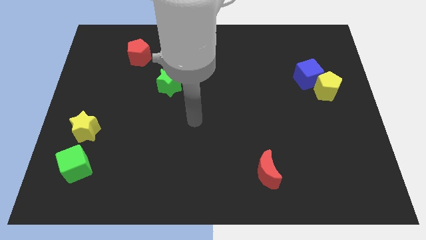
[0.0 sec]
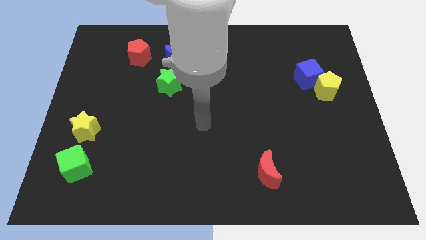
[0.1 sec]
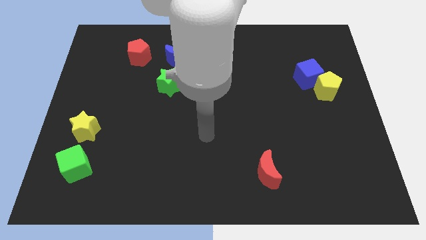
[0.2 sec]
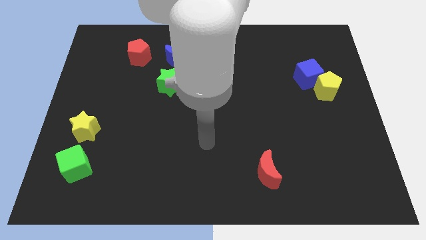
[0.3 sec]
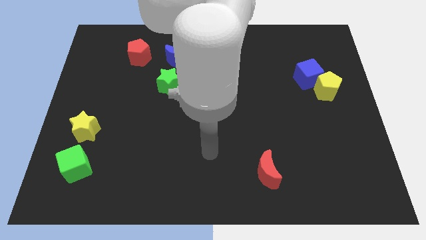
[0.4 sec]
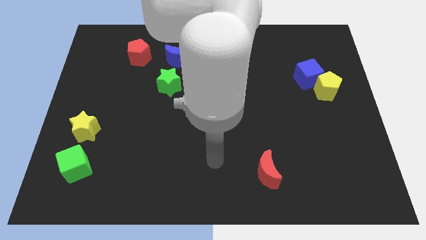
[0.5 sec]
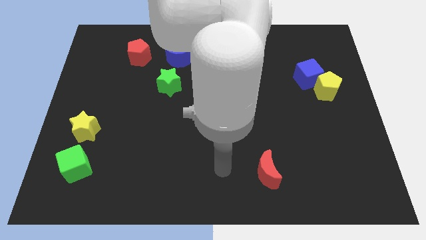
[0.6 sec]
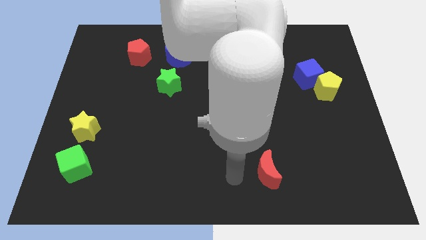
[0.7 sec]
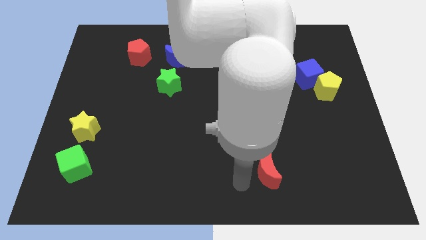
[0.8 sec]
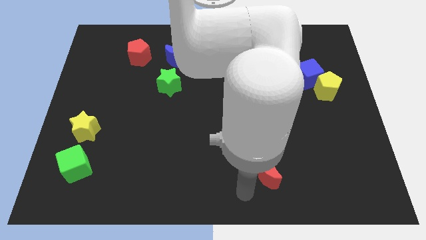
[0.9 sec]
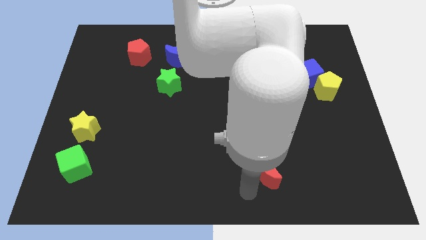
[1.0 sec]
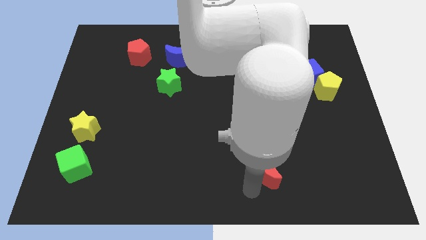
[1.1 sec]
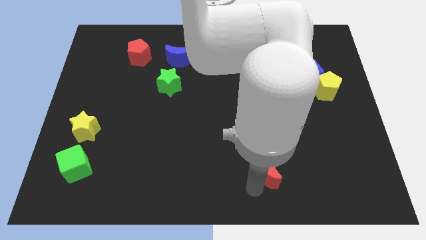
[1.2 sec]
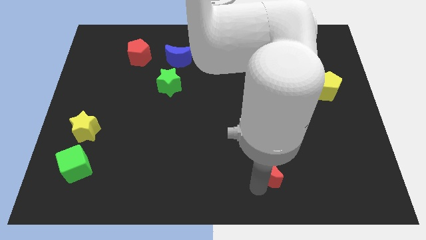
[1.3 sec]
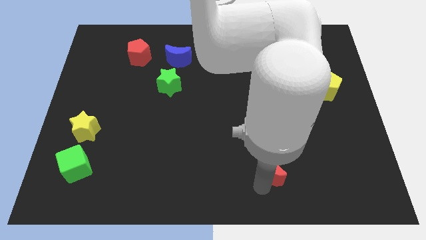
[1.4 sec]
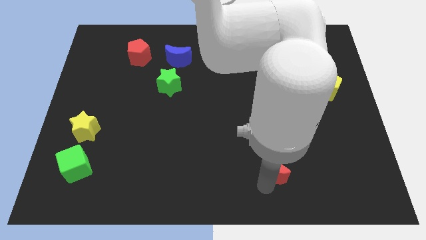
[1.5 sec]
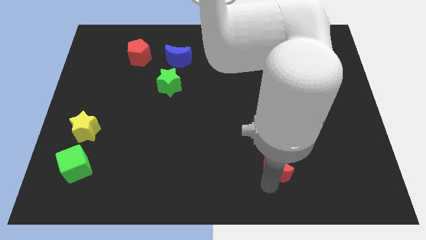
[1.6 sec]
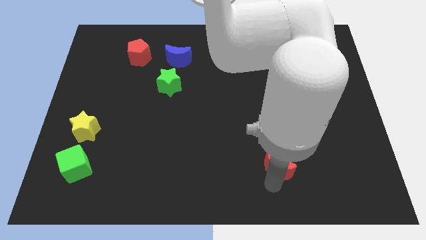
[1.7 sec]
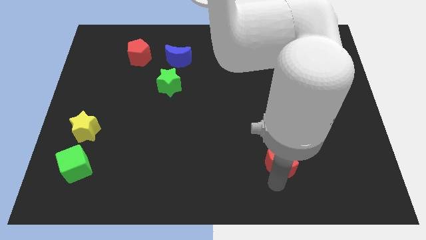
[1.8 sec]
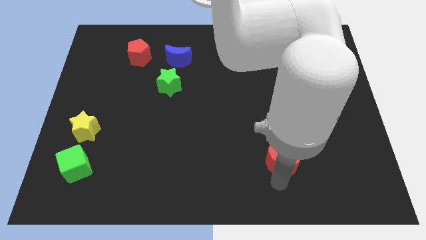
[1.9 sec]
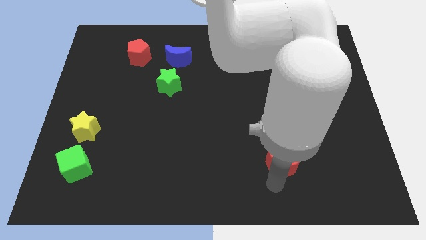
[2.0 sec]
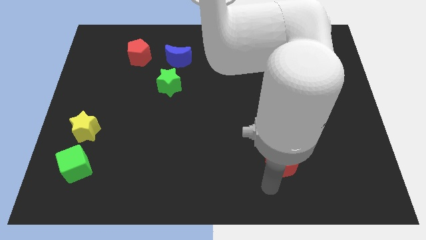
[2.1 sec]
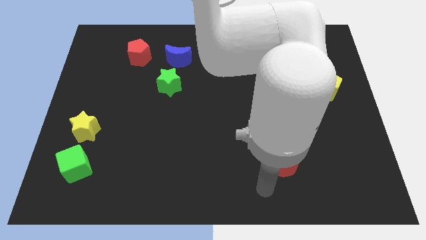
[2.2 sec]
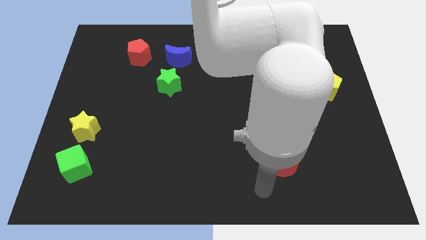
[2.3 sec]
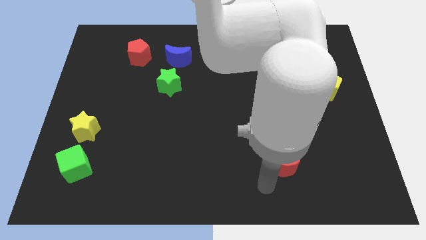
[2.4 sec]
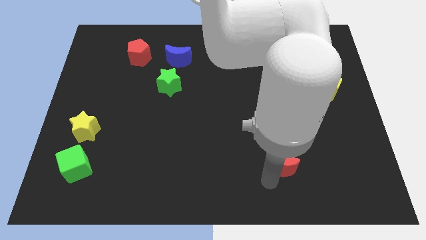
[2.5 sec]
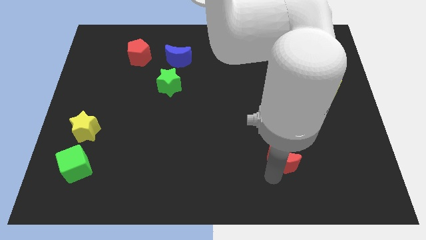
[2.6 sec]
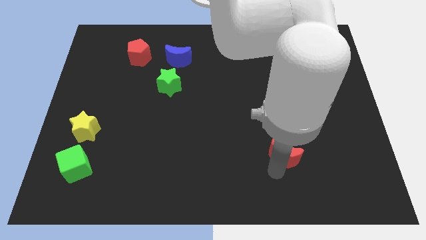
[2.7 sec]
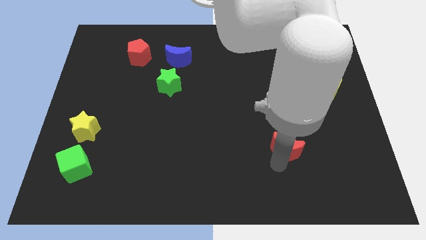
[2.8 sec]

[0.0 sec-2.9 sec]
move the red moon a little upwards and then right

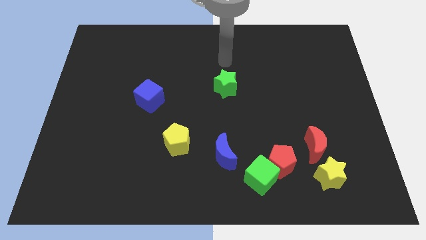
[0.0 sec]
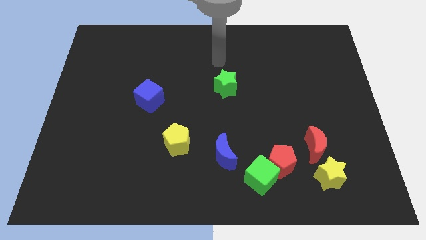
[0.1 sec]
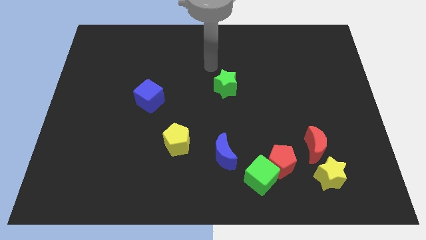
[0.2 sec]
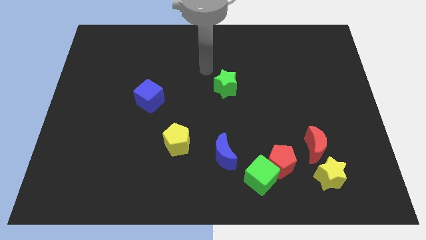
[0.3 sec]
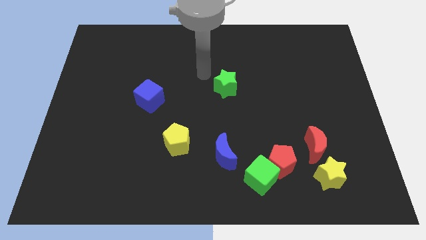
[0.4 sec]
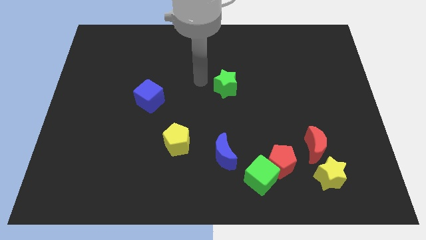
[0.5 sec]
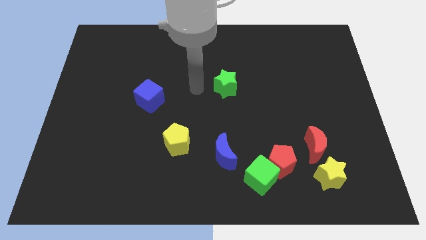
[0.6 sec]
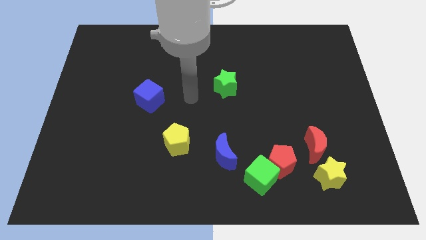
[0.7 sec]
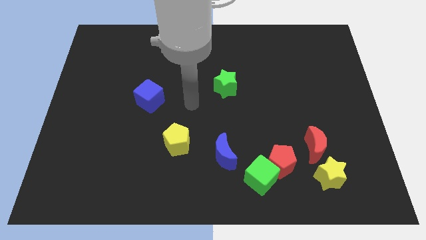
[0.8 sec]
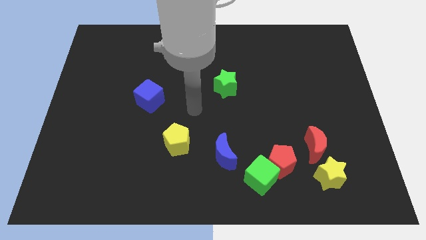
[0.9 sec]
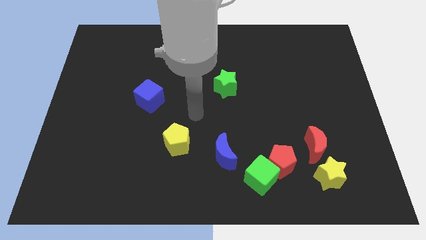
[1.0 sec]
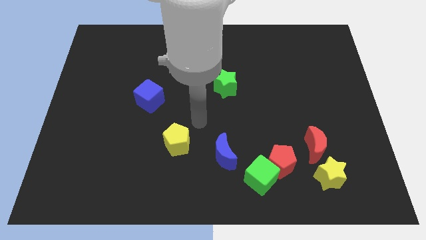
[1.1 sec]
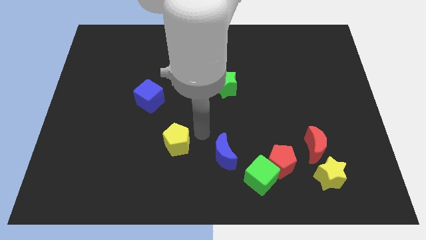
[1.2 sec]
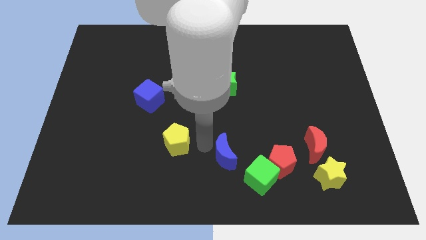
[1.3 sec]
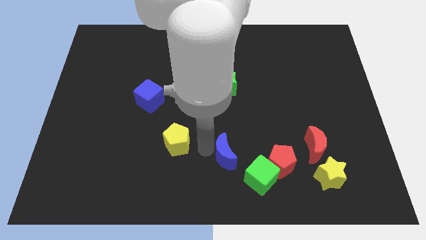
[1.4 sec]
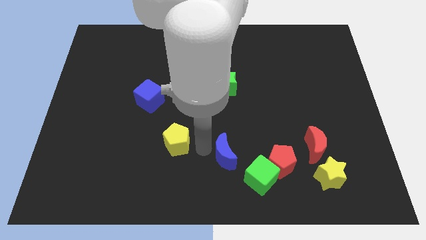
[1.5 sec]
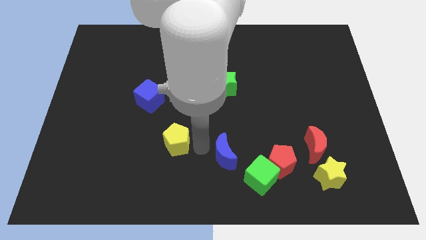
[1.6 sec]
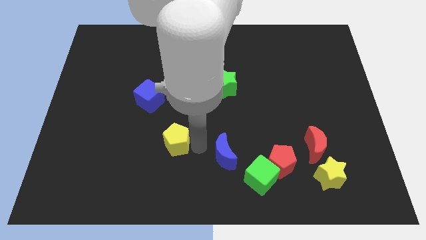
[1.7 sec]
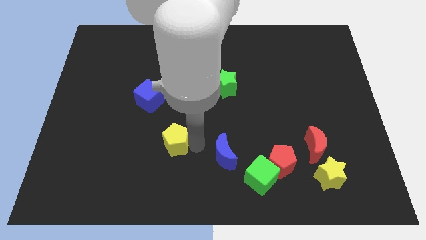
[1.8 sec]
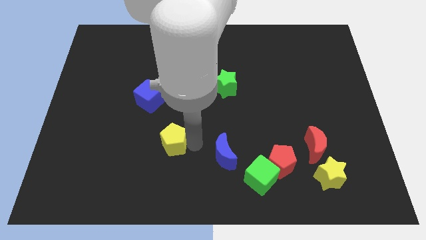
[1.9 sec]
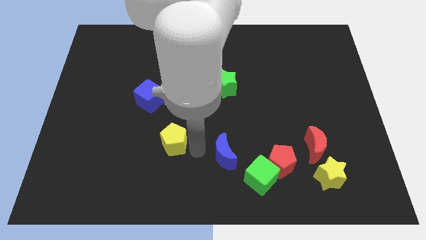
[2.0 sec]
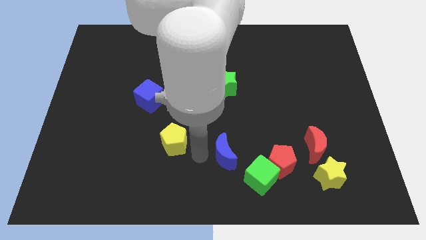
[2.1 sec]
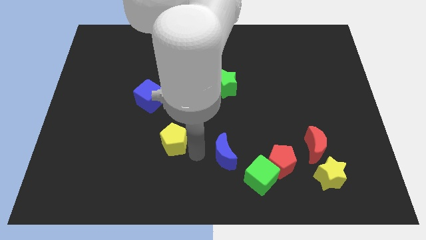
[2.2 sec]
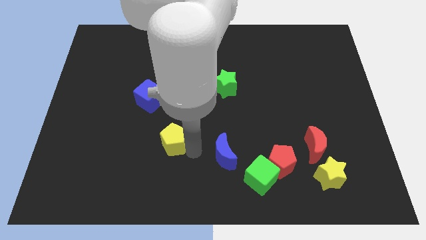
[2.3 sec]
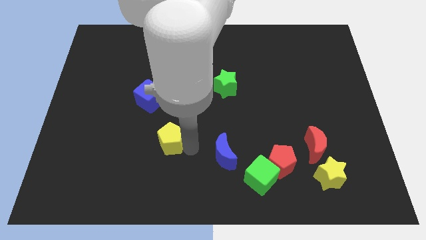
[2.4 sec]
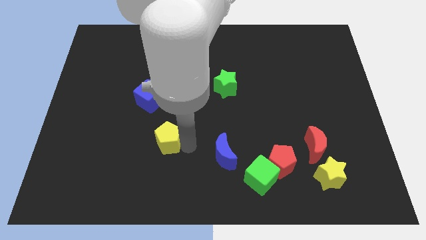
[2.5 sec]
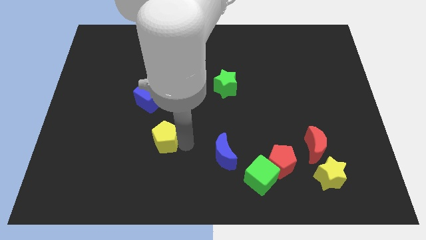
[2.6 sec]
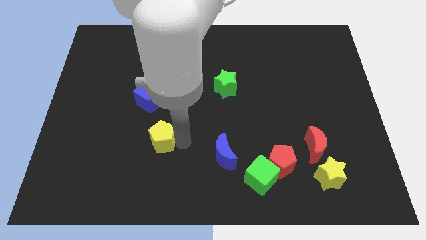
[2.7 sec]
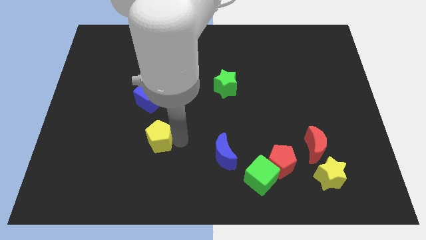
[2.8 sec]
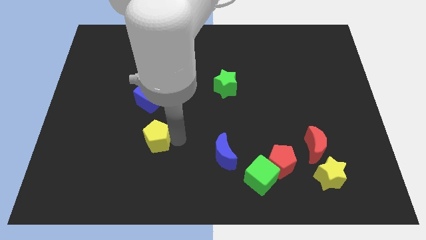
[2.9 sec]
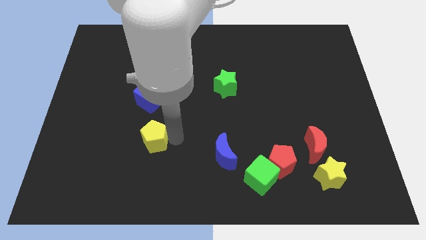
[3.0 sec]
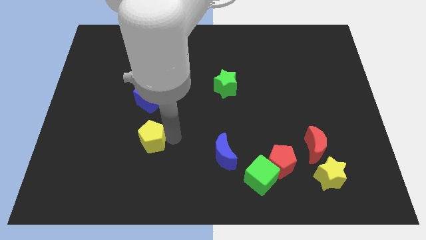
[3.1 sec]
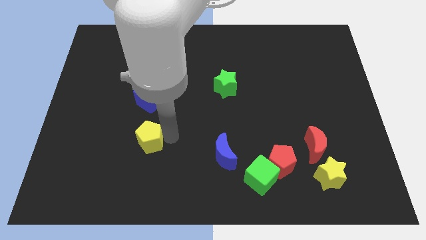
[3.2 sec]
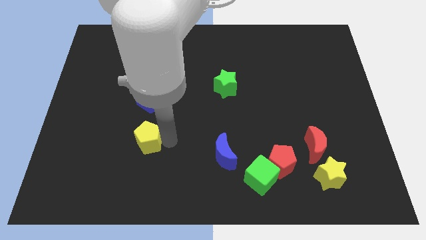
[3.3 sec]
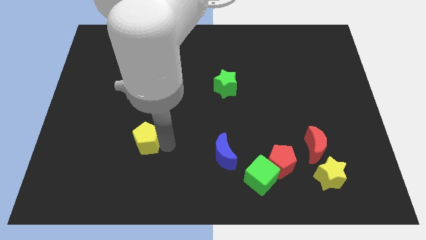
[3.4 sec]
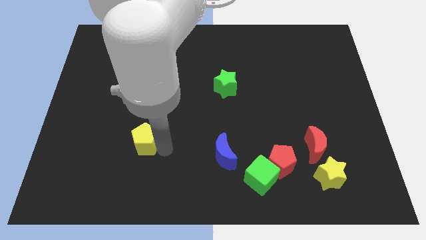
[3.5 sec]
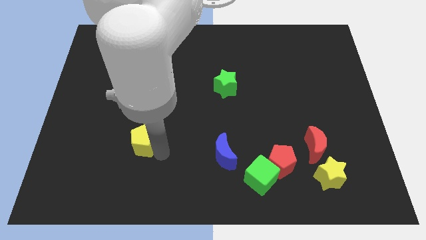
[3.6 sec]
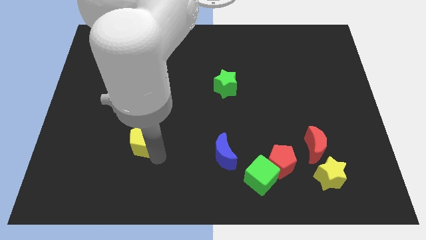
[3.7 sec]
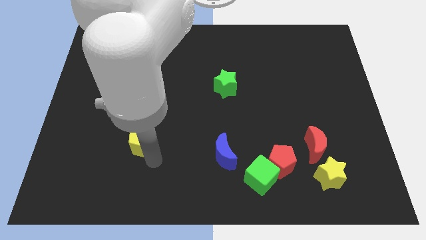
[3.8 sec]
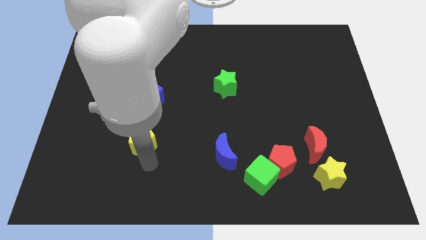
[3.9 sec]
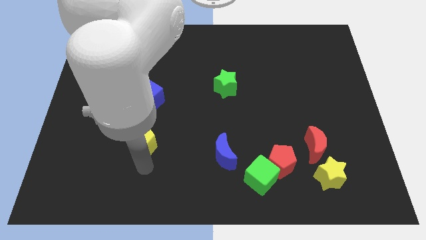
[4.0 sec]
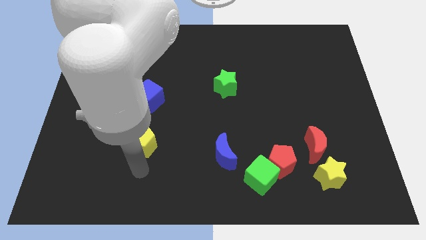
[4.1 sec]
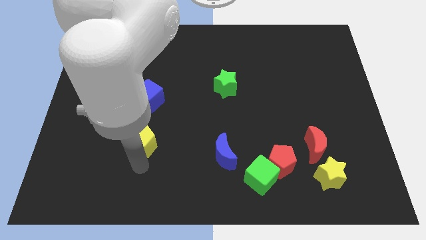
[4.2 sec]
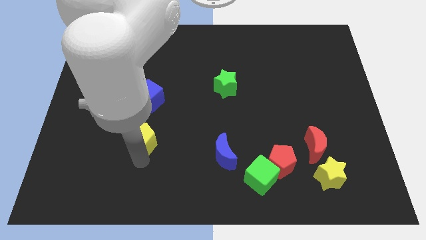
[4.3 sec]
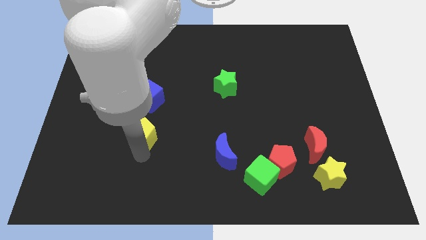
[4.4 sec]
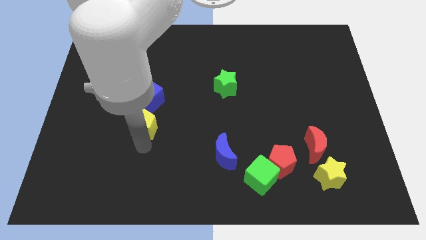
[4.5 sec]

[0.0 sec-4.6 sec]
slightly move the yellow pentagon upwards and left

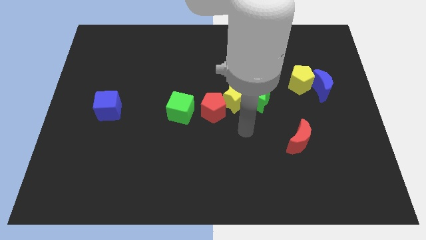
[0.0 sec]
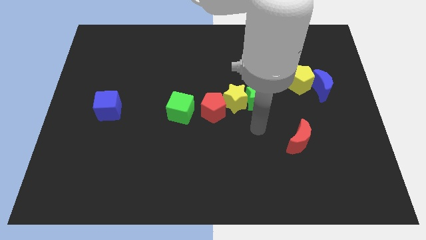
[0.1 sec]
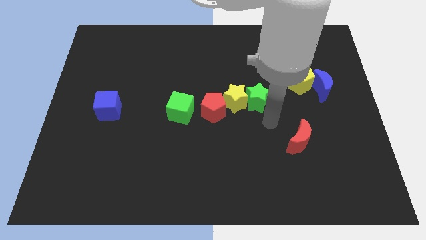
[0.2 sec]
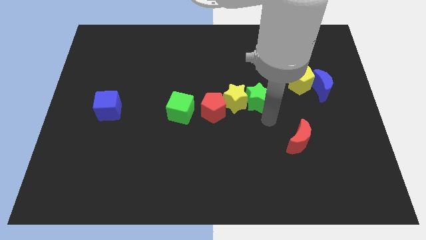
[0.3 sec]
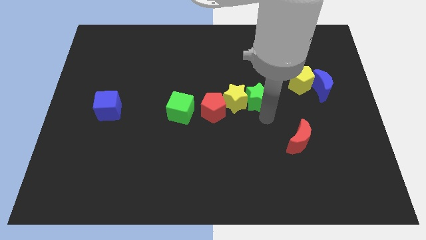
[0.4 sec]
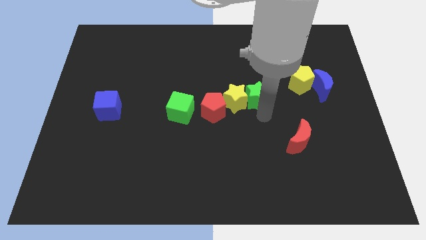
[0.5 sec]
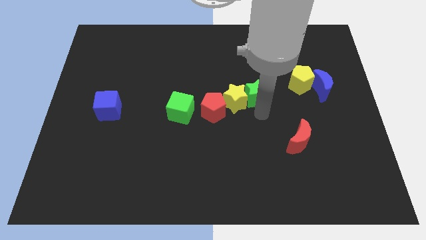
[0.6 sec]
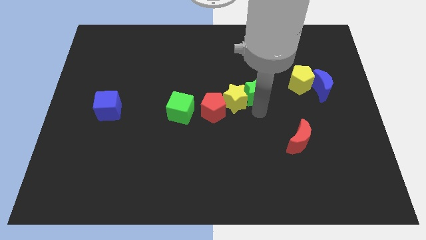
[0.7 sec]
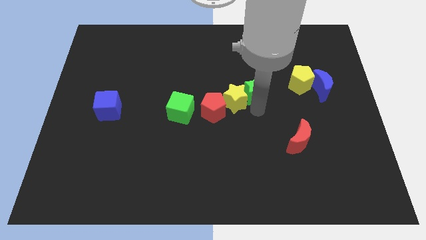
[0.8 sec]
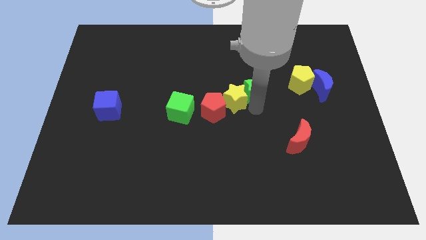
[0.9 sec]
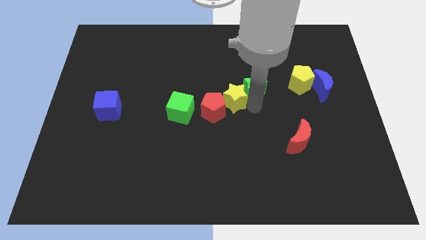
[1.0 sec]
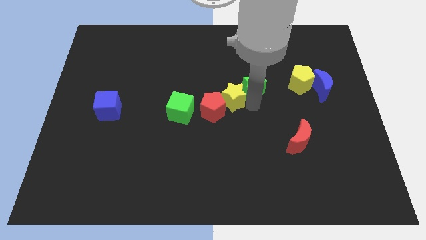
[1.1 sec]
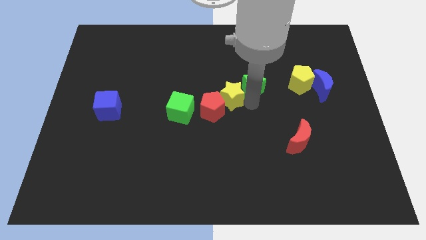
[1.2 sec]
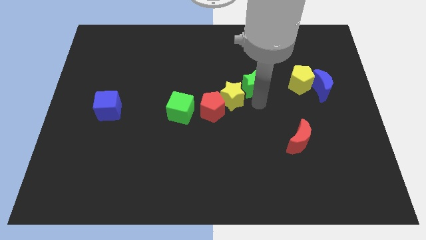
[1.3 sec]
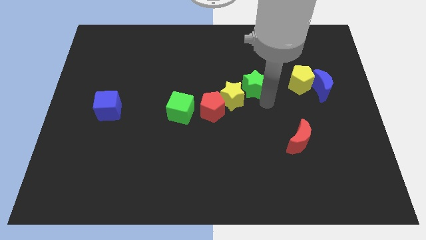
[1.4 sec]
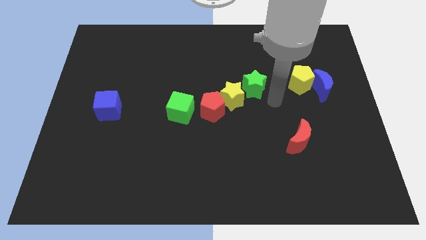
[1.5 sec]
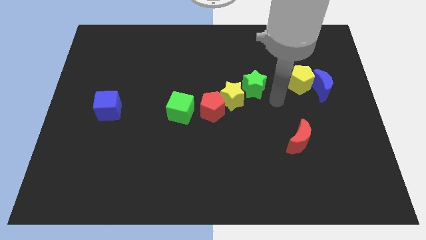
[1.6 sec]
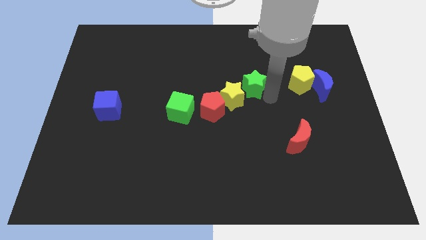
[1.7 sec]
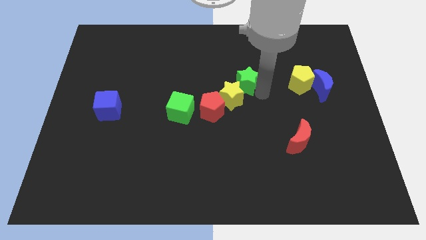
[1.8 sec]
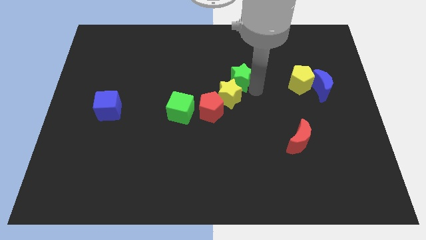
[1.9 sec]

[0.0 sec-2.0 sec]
move the green star up and left slightly
